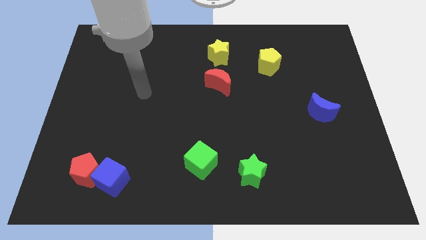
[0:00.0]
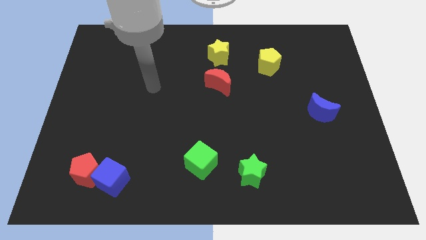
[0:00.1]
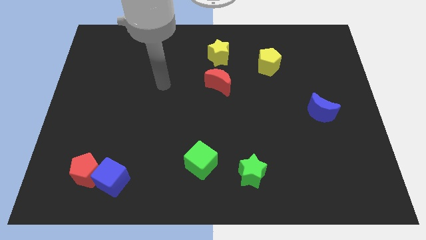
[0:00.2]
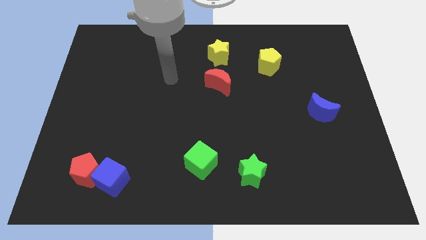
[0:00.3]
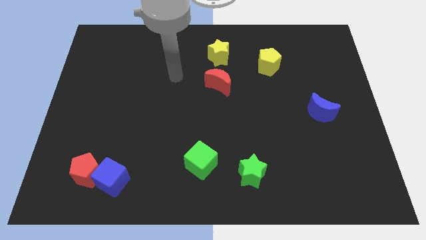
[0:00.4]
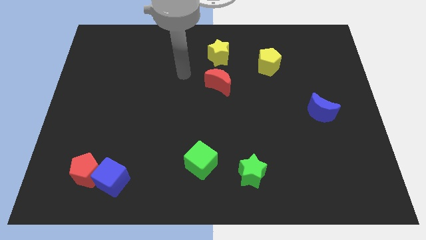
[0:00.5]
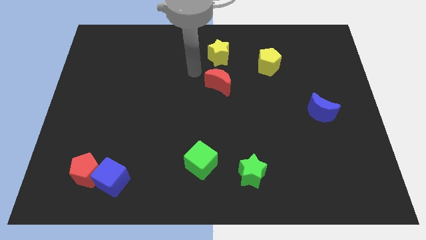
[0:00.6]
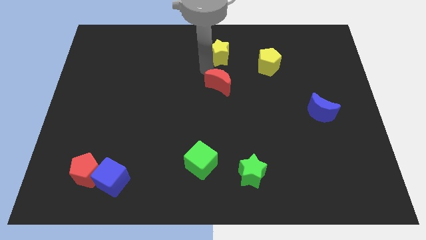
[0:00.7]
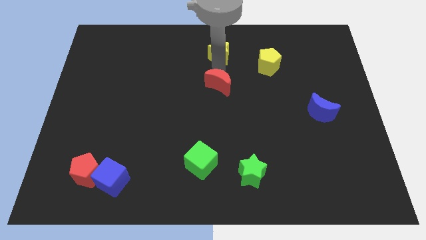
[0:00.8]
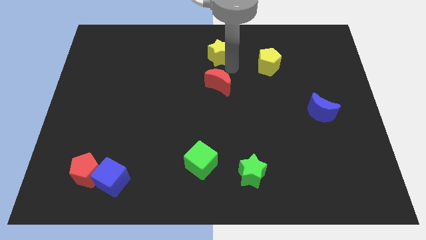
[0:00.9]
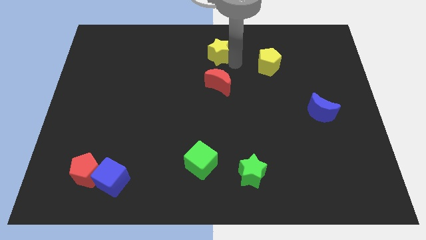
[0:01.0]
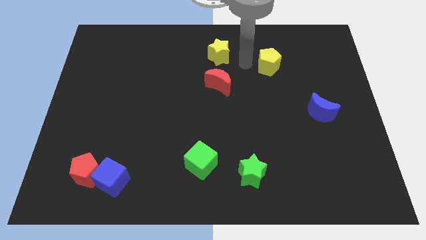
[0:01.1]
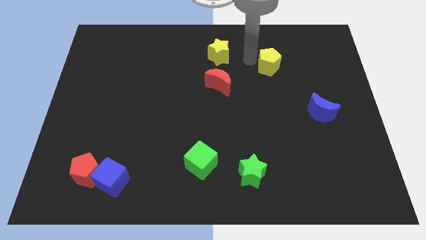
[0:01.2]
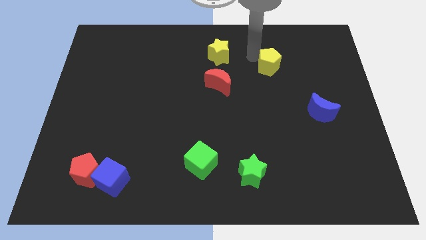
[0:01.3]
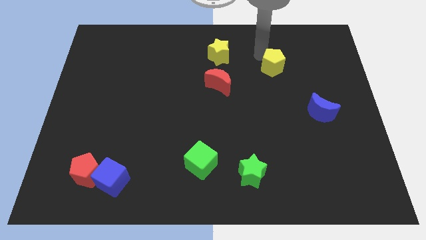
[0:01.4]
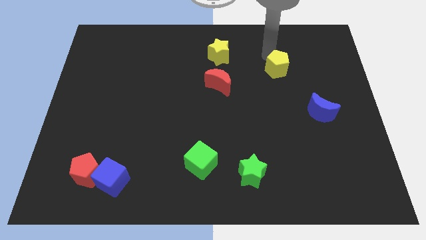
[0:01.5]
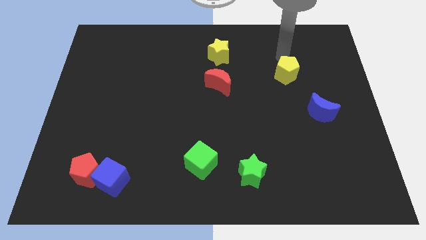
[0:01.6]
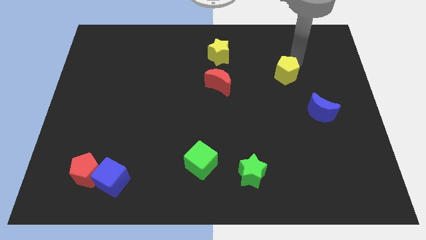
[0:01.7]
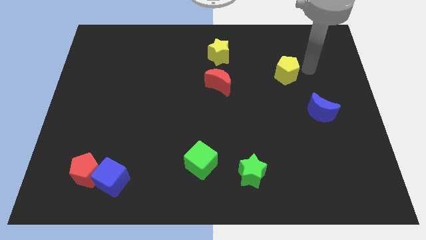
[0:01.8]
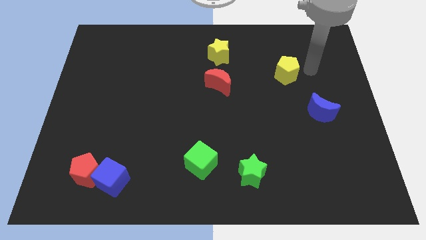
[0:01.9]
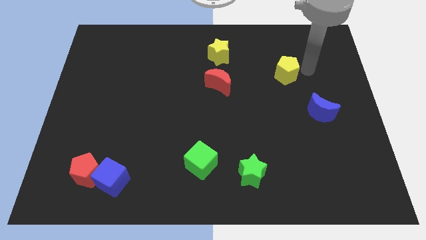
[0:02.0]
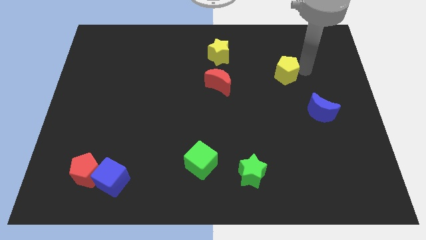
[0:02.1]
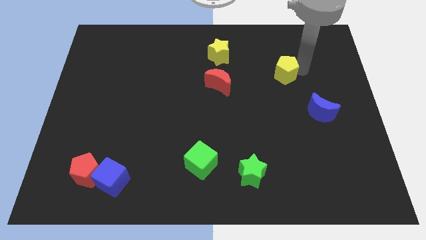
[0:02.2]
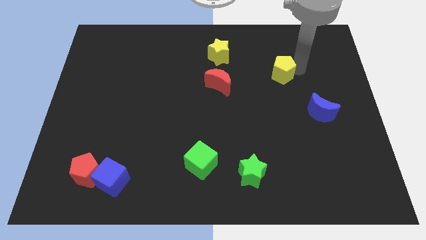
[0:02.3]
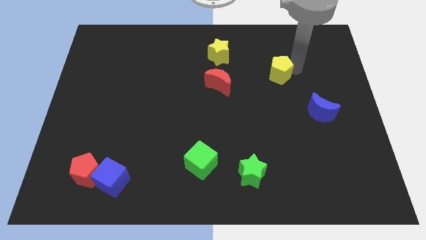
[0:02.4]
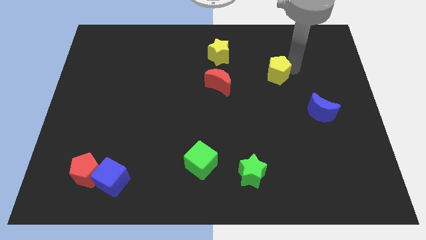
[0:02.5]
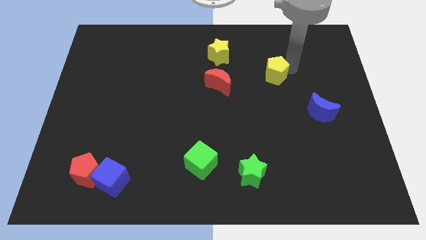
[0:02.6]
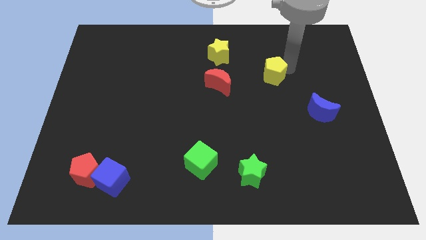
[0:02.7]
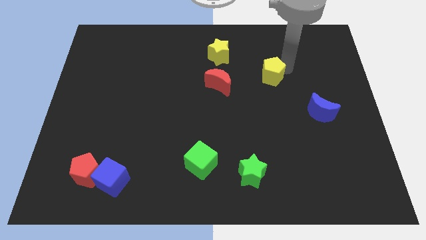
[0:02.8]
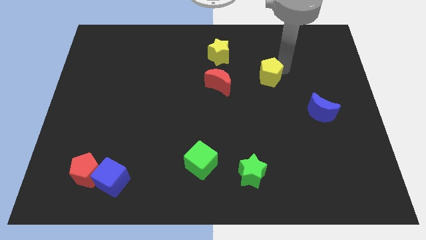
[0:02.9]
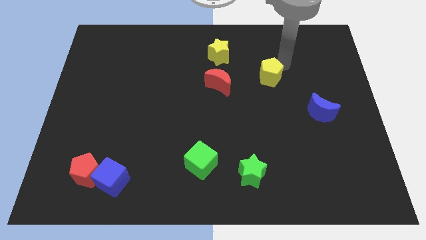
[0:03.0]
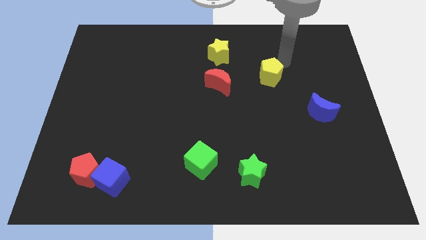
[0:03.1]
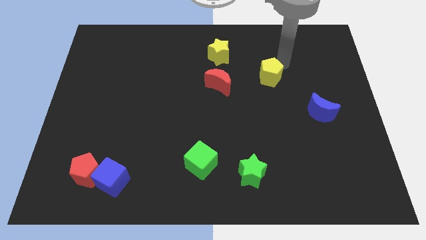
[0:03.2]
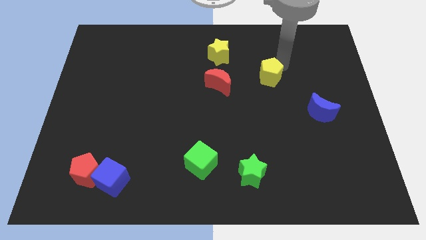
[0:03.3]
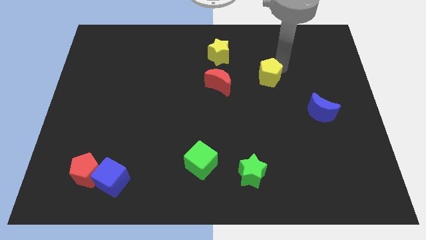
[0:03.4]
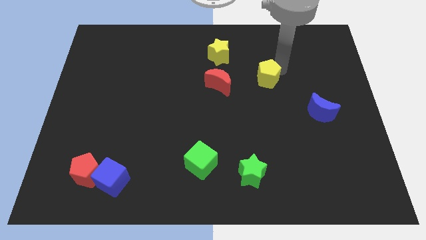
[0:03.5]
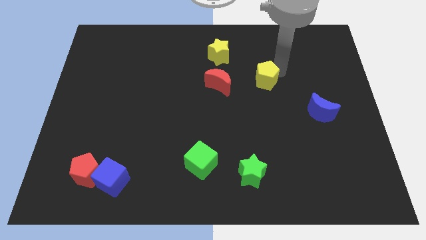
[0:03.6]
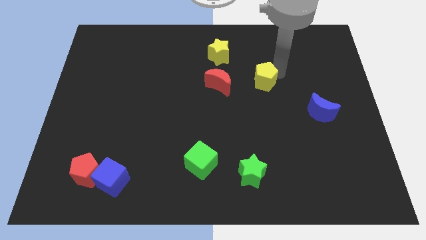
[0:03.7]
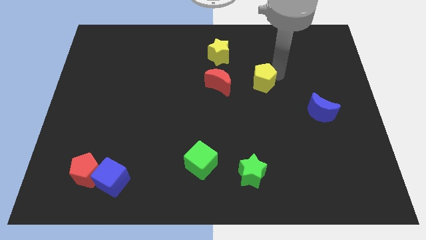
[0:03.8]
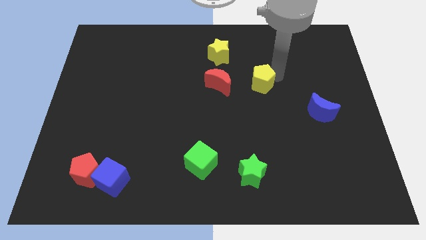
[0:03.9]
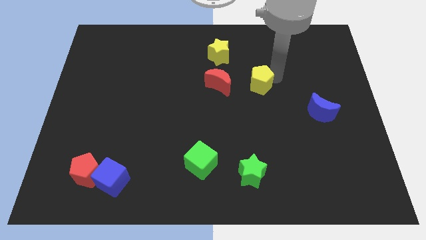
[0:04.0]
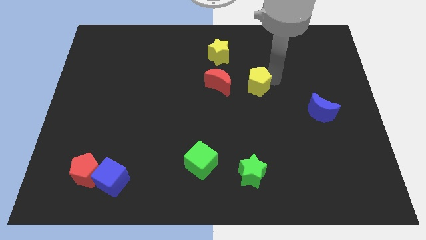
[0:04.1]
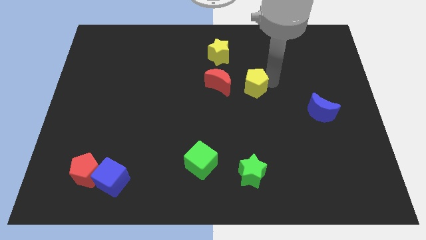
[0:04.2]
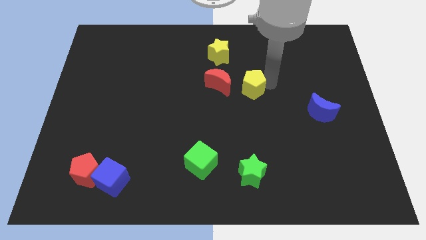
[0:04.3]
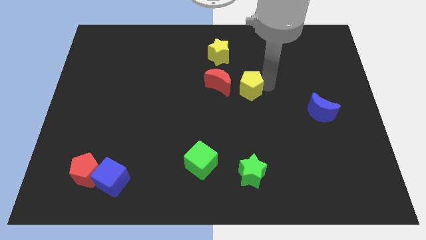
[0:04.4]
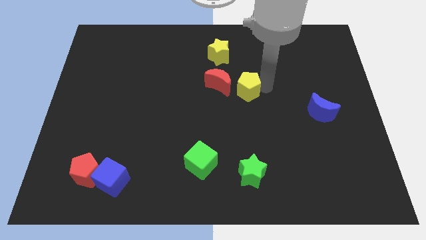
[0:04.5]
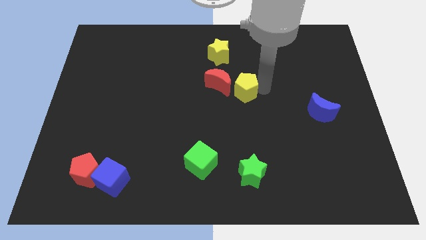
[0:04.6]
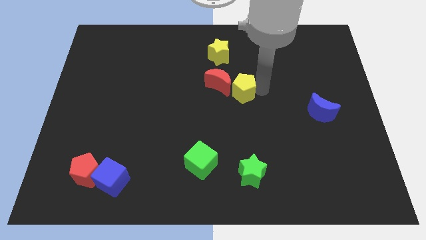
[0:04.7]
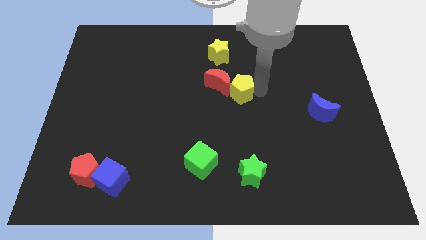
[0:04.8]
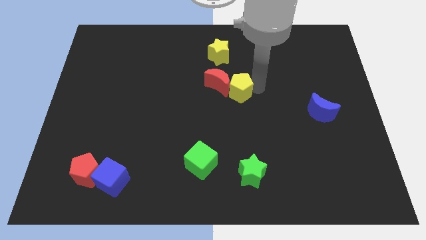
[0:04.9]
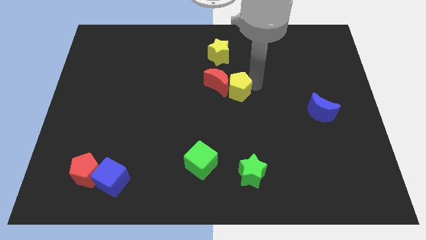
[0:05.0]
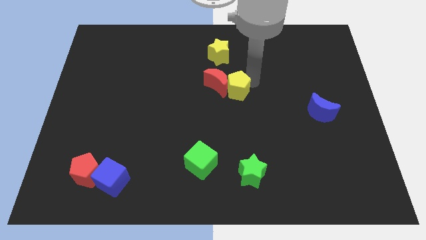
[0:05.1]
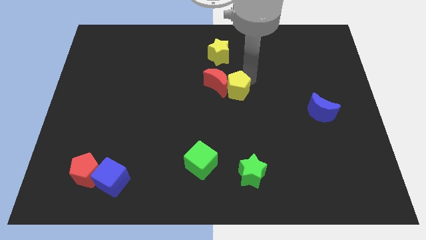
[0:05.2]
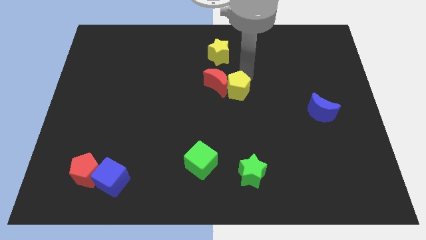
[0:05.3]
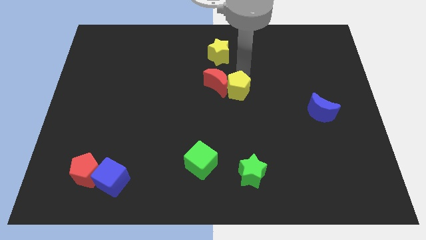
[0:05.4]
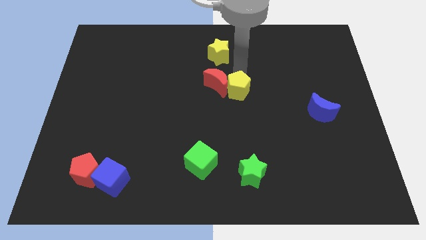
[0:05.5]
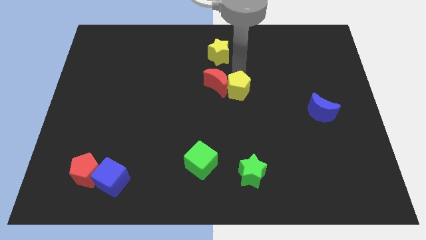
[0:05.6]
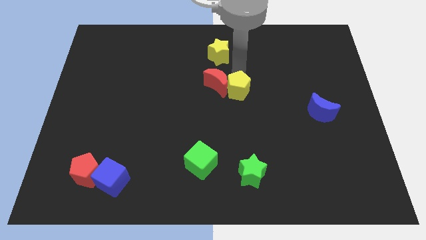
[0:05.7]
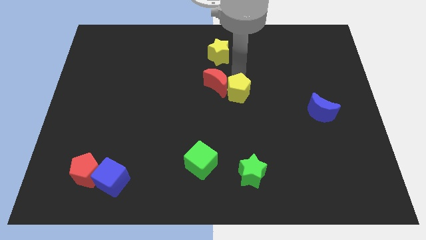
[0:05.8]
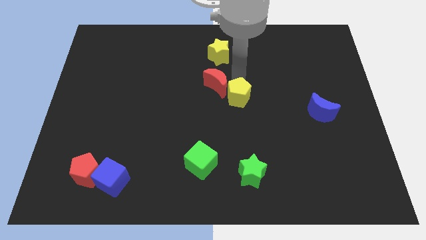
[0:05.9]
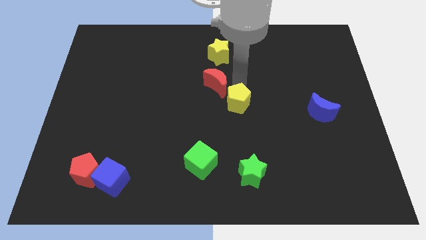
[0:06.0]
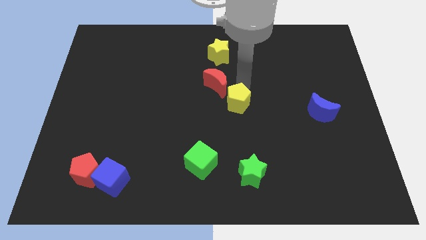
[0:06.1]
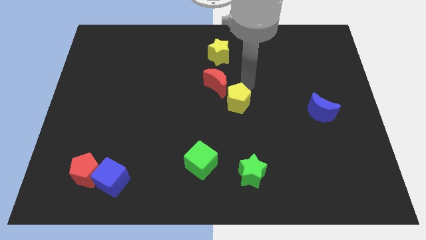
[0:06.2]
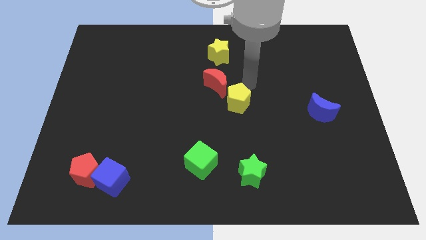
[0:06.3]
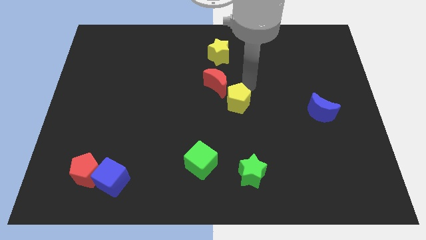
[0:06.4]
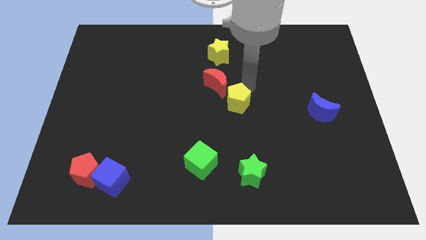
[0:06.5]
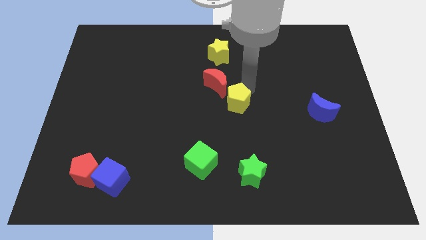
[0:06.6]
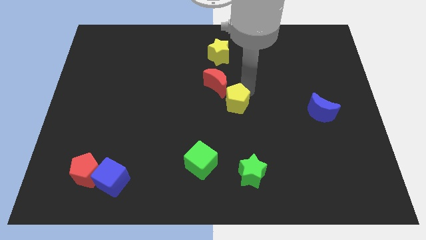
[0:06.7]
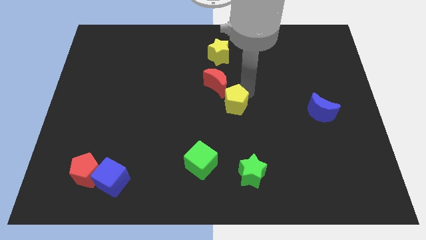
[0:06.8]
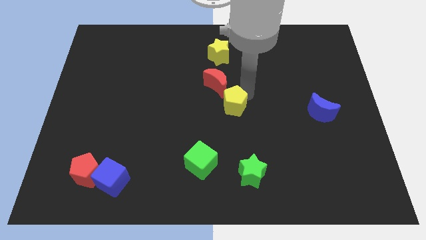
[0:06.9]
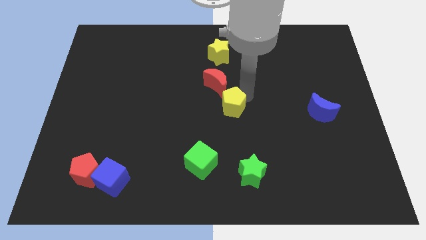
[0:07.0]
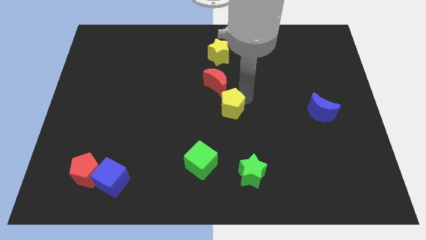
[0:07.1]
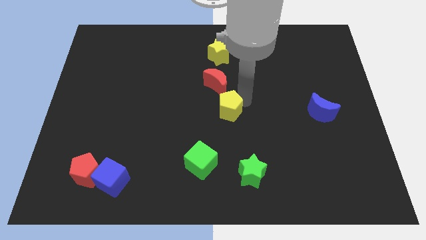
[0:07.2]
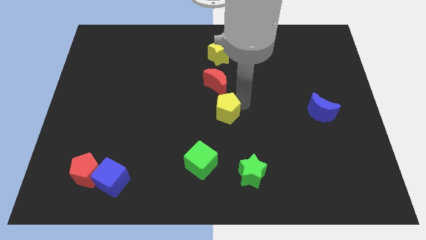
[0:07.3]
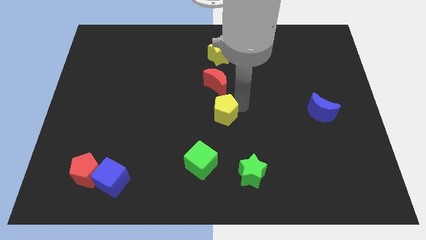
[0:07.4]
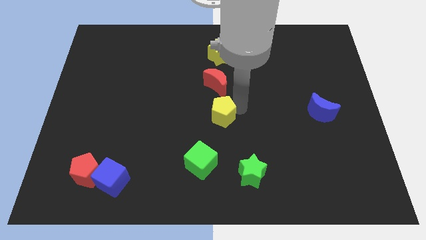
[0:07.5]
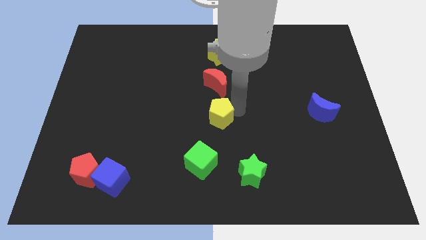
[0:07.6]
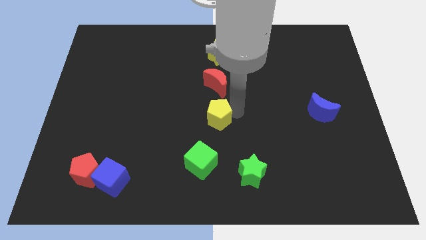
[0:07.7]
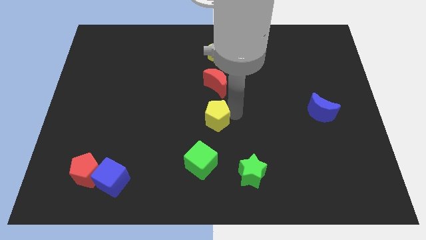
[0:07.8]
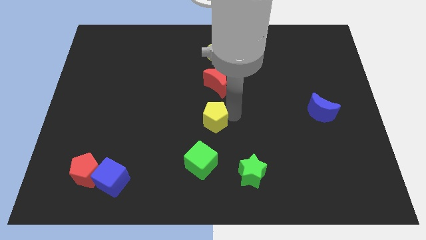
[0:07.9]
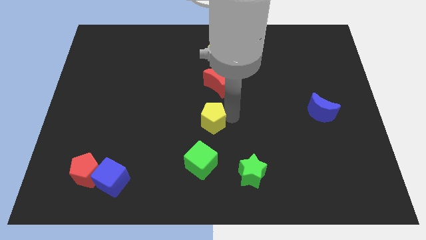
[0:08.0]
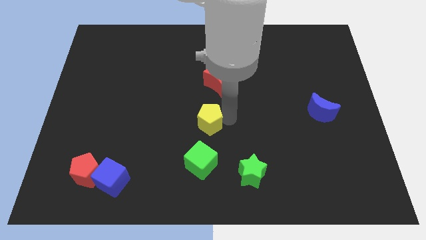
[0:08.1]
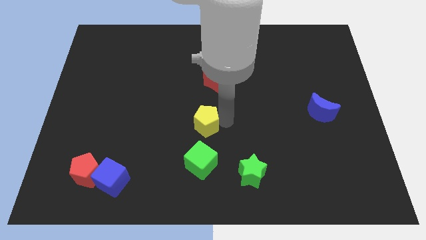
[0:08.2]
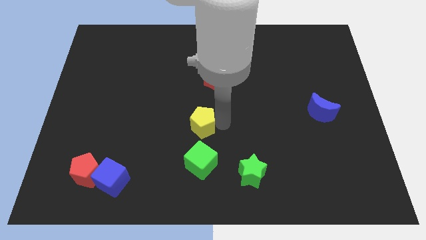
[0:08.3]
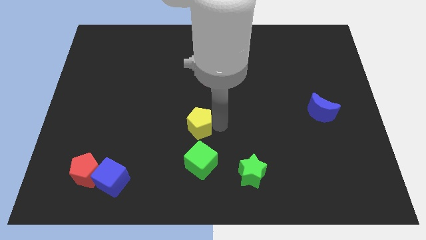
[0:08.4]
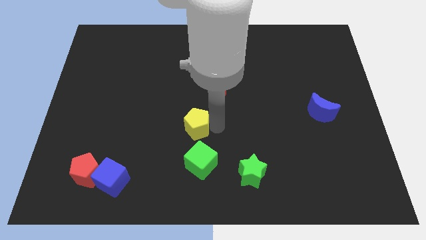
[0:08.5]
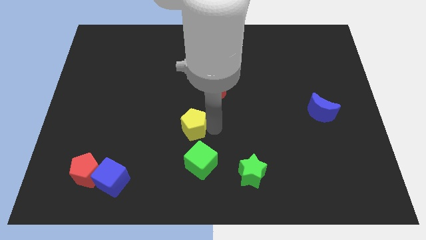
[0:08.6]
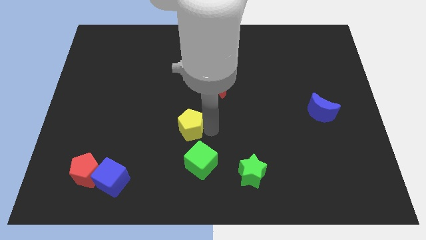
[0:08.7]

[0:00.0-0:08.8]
move the yellow pentagon to the top left of the green cube
